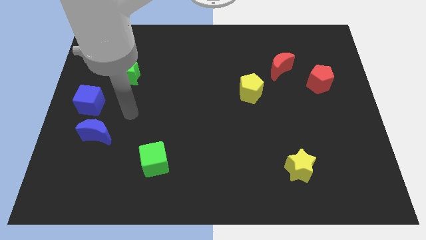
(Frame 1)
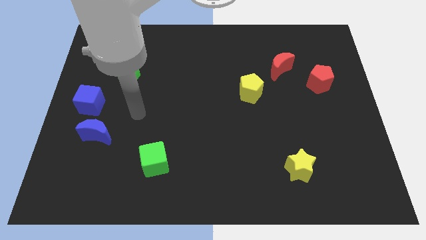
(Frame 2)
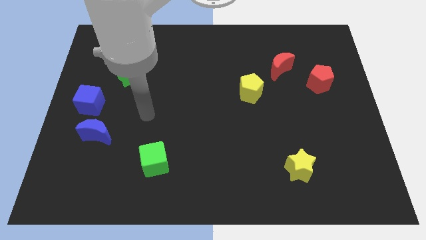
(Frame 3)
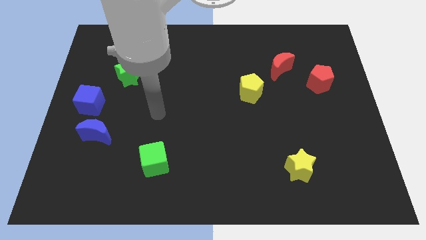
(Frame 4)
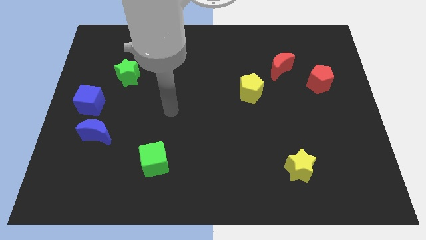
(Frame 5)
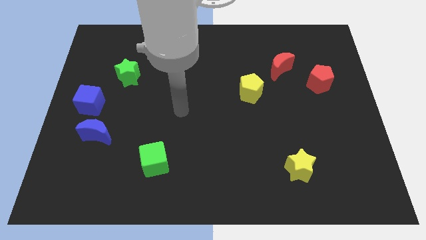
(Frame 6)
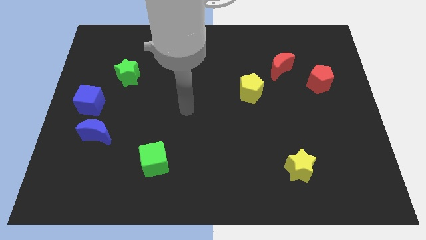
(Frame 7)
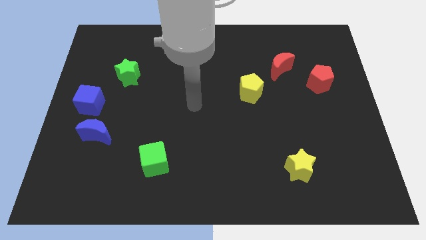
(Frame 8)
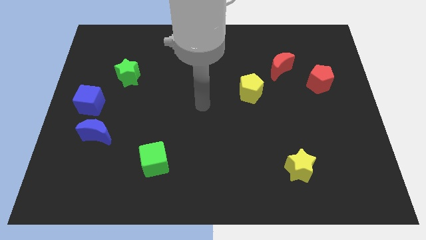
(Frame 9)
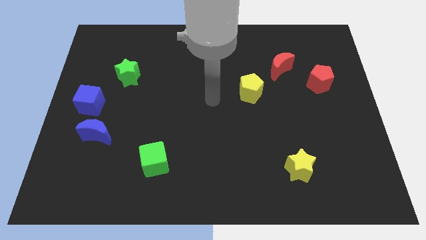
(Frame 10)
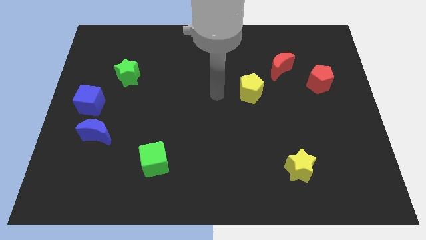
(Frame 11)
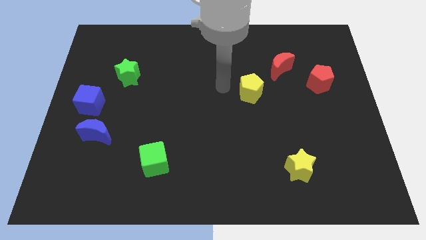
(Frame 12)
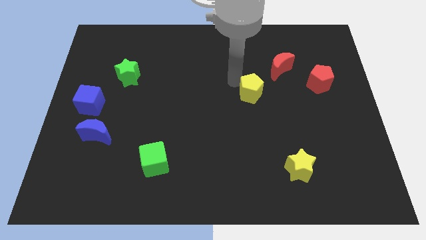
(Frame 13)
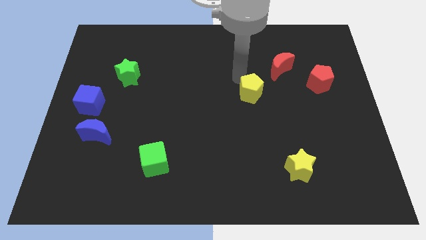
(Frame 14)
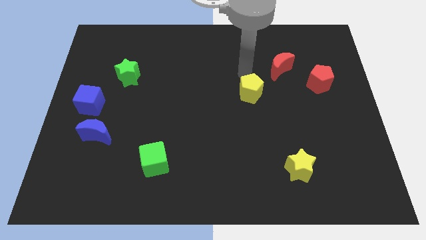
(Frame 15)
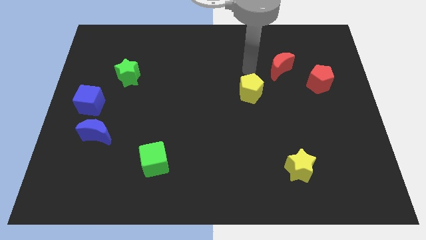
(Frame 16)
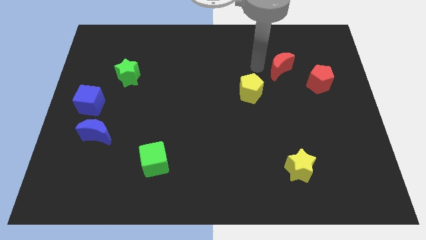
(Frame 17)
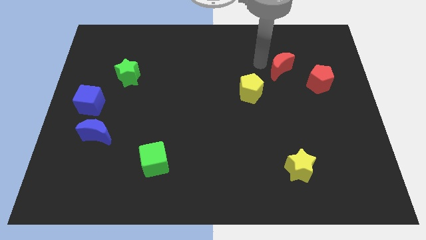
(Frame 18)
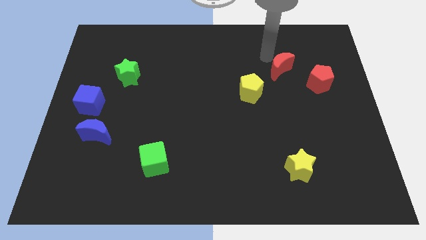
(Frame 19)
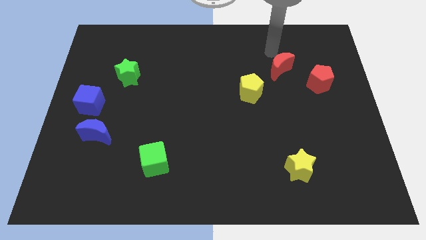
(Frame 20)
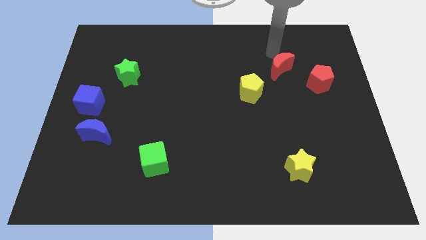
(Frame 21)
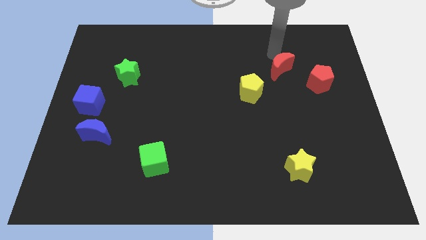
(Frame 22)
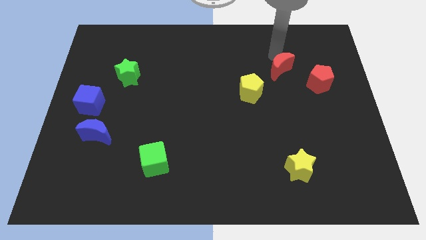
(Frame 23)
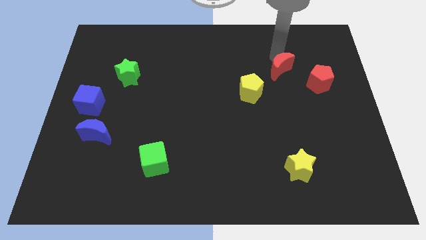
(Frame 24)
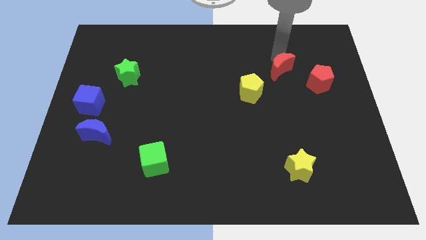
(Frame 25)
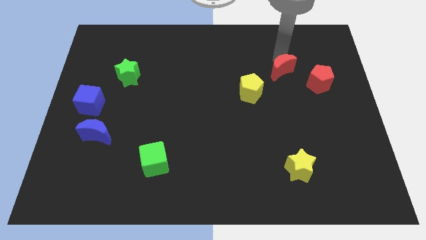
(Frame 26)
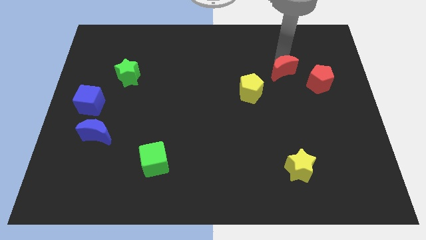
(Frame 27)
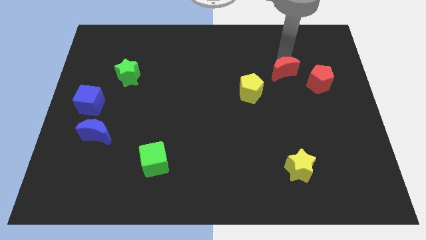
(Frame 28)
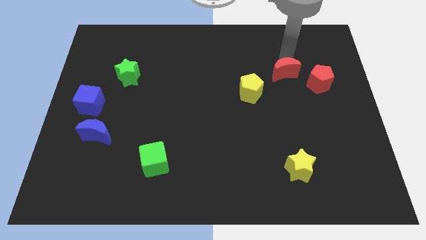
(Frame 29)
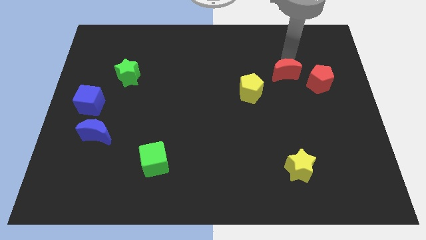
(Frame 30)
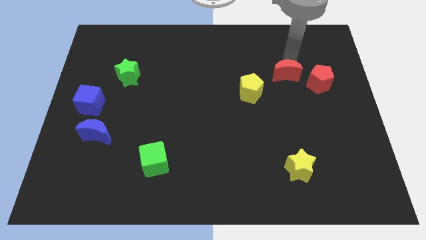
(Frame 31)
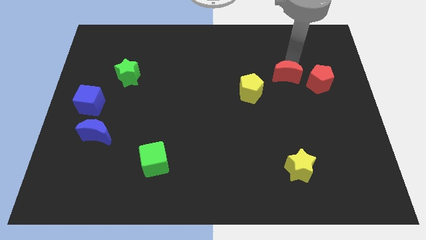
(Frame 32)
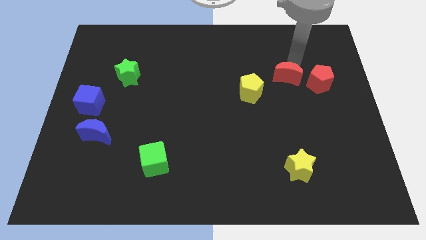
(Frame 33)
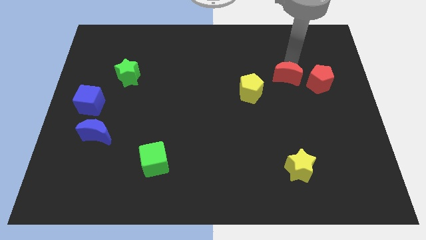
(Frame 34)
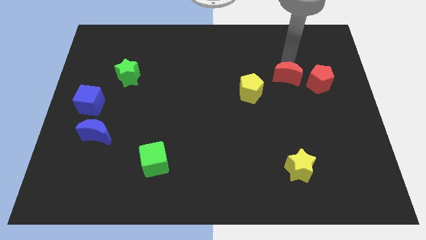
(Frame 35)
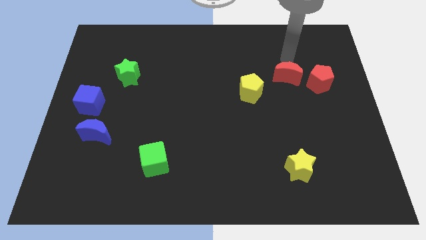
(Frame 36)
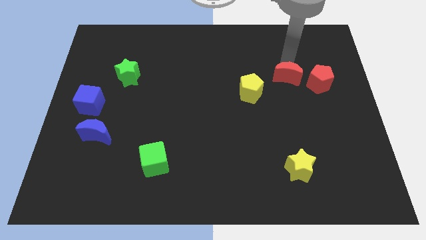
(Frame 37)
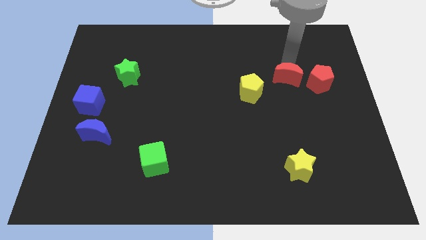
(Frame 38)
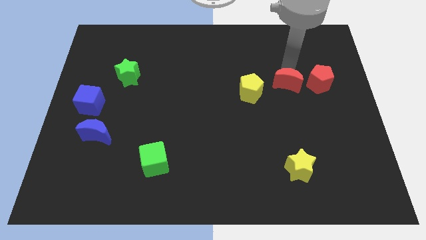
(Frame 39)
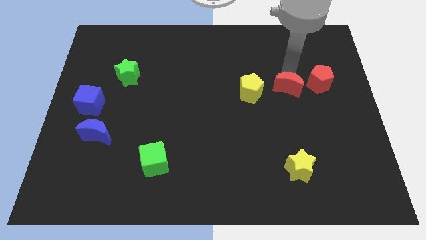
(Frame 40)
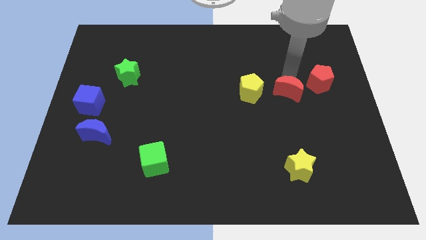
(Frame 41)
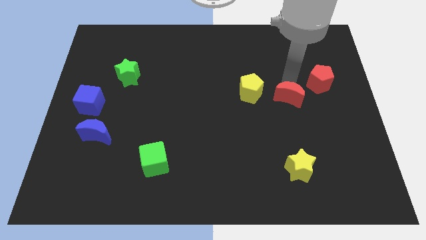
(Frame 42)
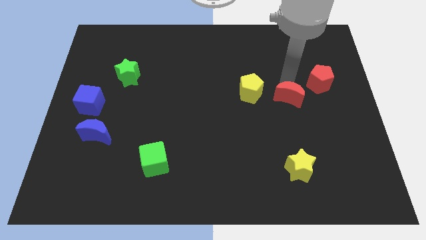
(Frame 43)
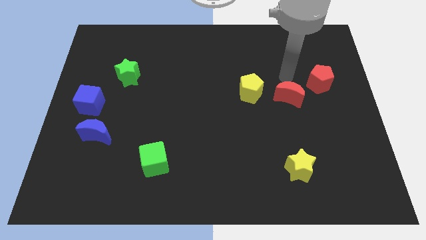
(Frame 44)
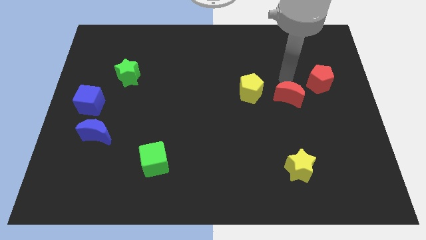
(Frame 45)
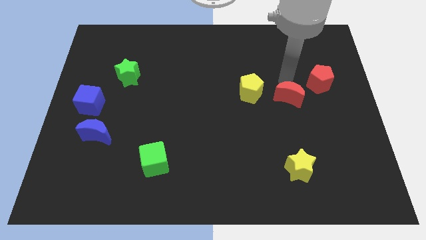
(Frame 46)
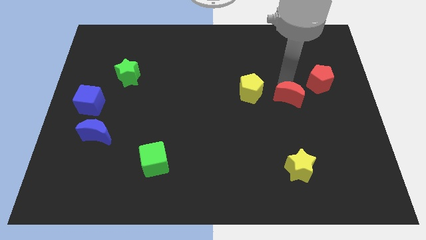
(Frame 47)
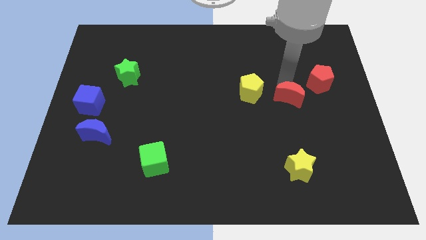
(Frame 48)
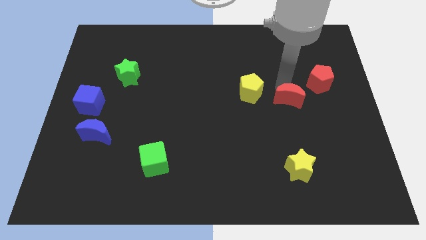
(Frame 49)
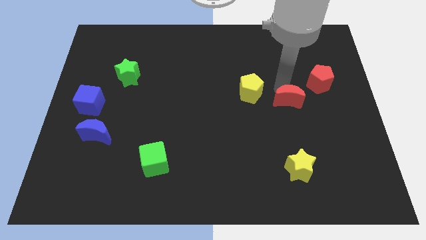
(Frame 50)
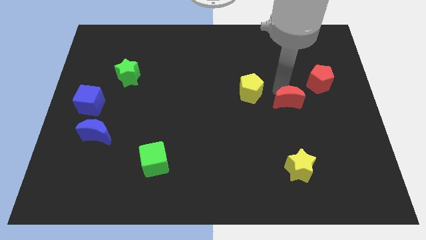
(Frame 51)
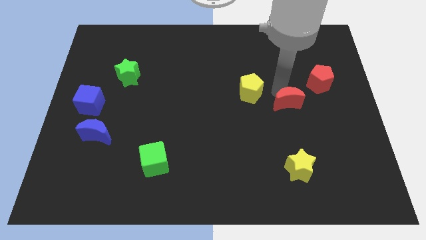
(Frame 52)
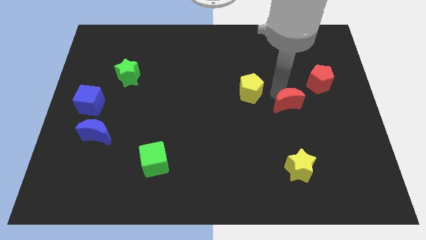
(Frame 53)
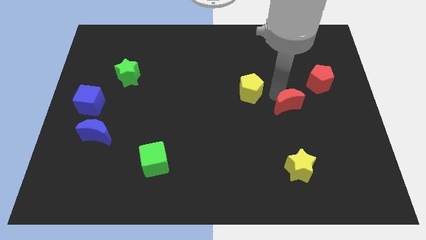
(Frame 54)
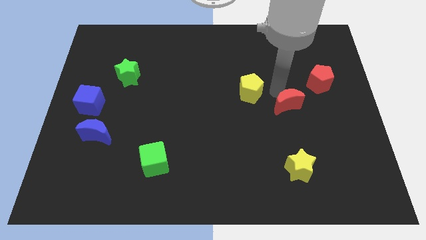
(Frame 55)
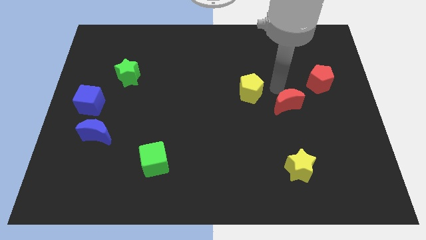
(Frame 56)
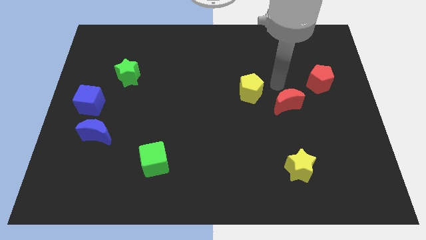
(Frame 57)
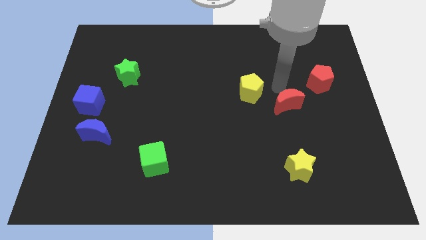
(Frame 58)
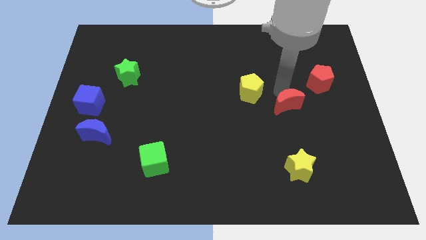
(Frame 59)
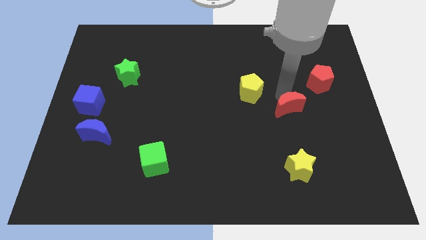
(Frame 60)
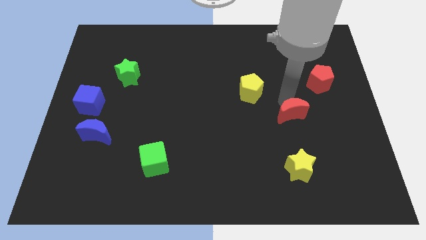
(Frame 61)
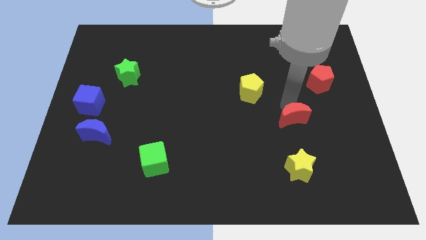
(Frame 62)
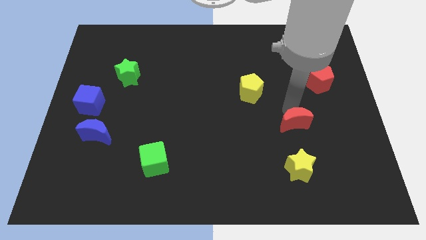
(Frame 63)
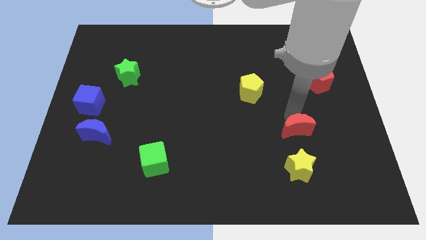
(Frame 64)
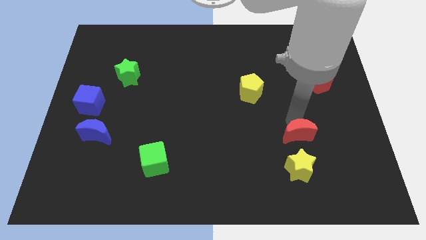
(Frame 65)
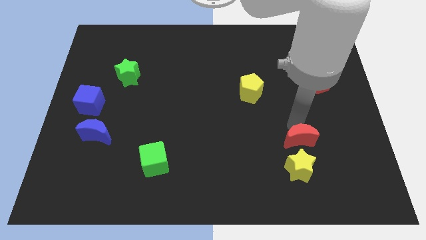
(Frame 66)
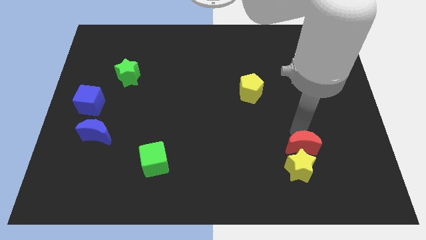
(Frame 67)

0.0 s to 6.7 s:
move the red moon close to the yellow star
